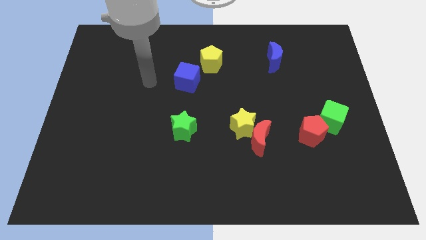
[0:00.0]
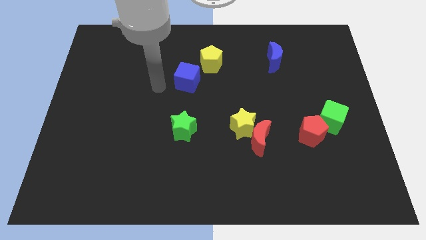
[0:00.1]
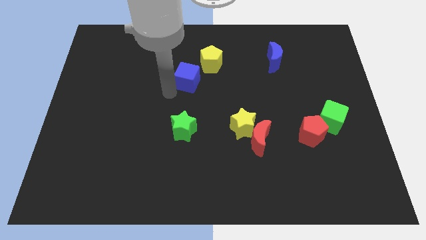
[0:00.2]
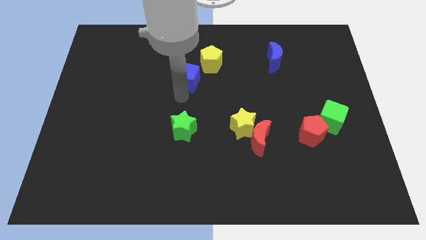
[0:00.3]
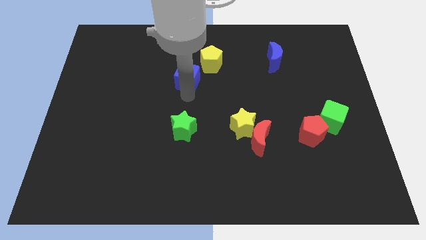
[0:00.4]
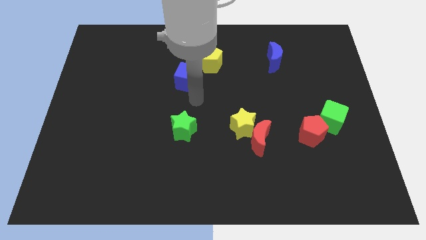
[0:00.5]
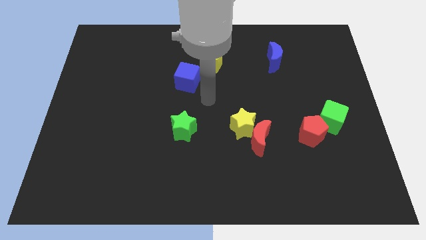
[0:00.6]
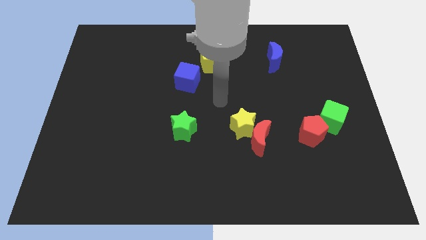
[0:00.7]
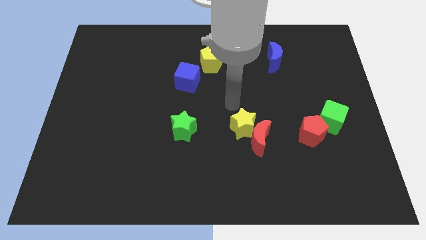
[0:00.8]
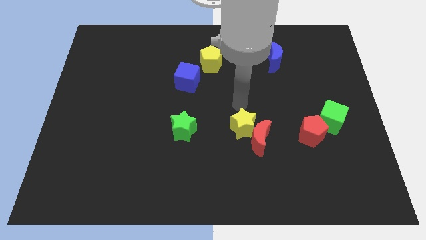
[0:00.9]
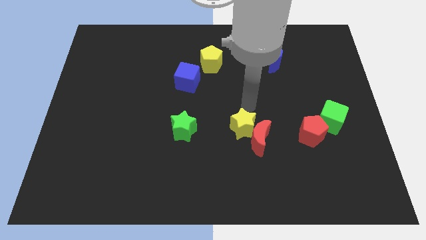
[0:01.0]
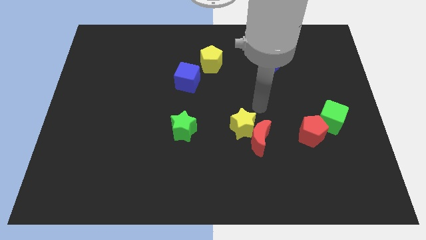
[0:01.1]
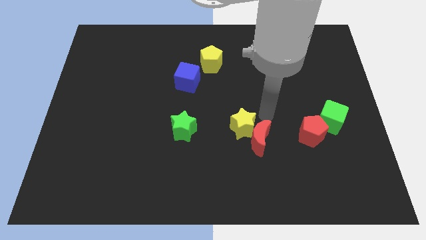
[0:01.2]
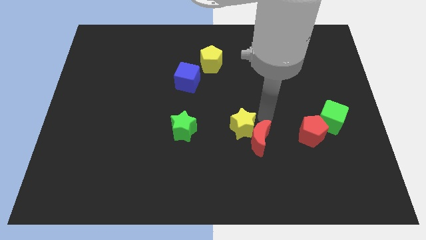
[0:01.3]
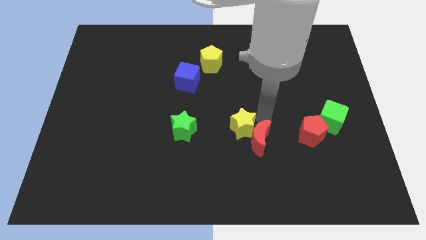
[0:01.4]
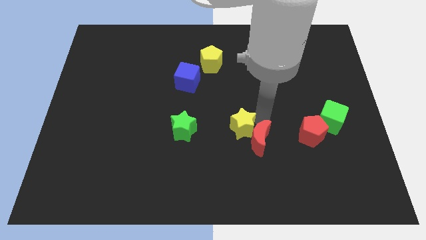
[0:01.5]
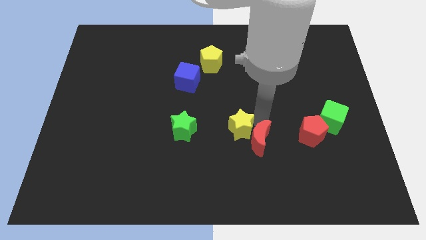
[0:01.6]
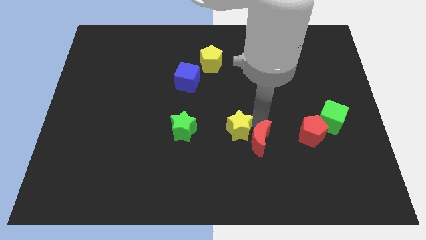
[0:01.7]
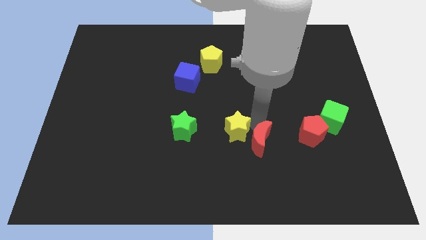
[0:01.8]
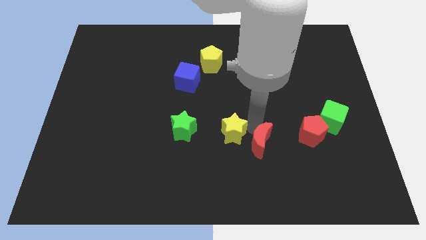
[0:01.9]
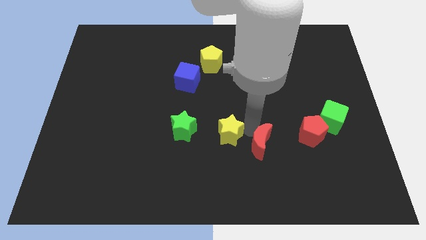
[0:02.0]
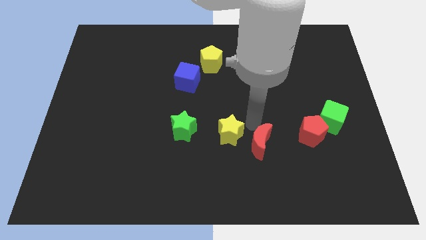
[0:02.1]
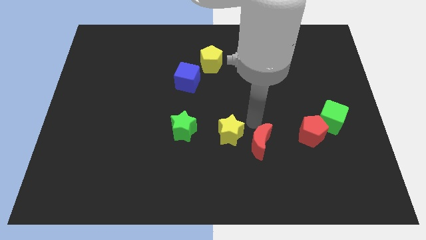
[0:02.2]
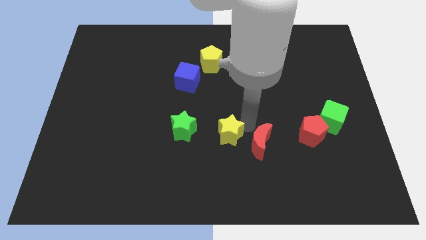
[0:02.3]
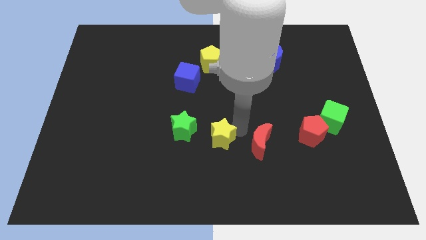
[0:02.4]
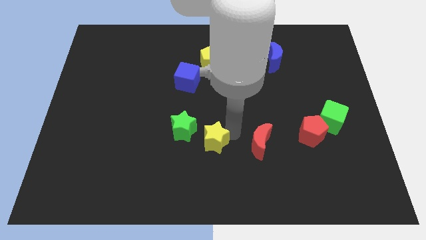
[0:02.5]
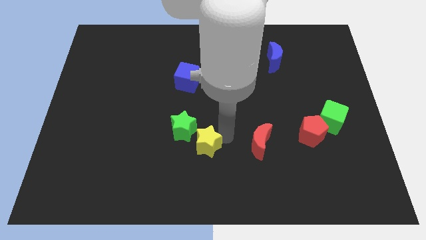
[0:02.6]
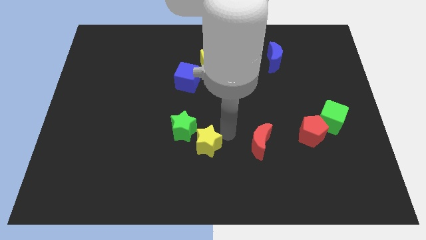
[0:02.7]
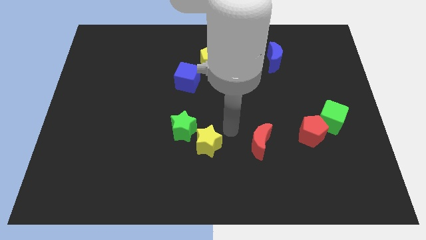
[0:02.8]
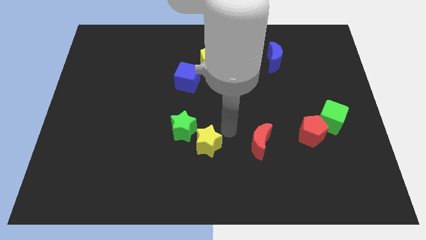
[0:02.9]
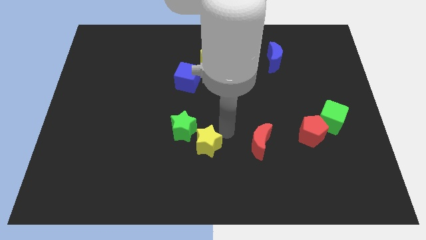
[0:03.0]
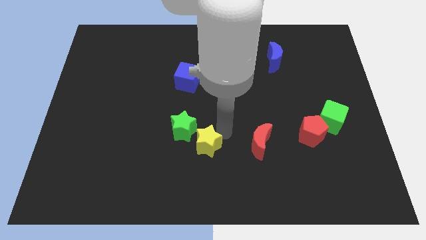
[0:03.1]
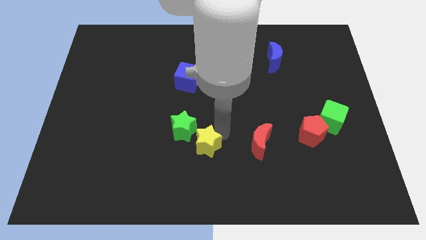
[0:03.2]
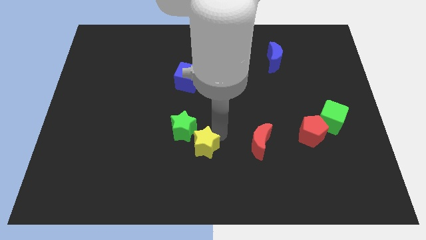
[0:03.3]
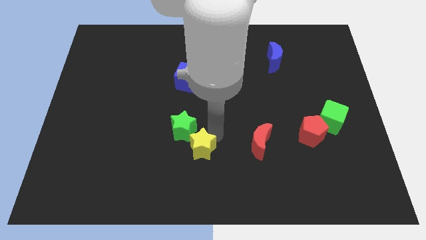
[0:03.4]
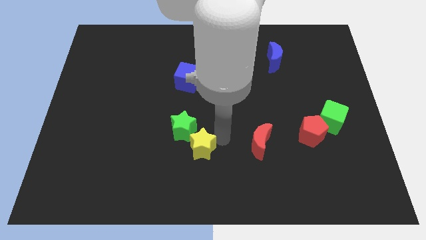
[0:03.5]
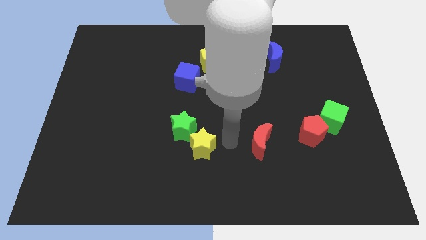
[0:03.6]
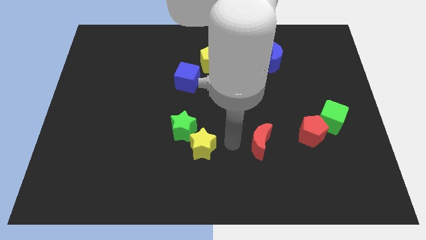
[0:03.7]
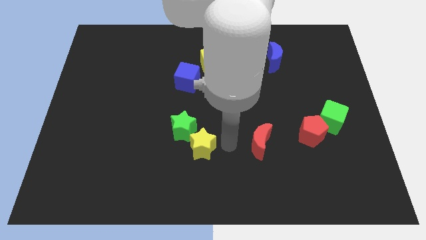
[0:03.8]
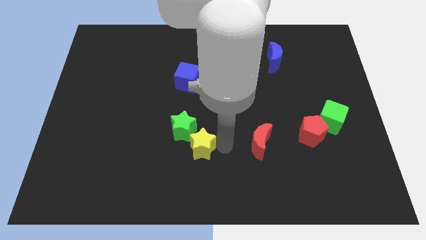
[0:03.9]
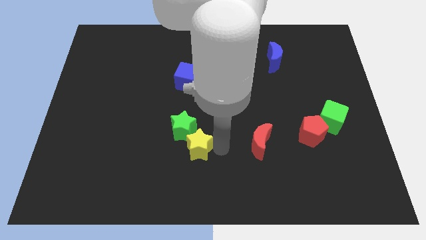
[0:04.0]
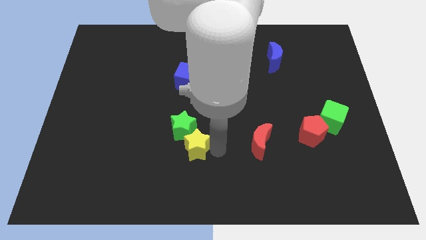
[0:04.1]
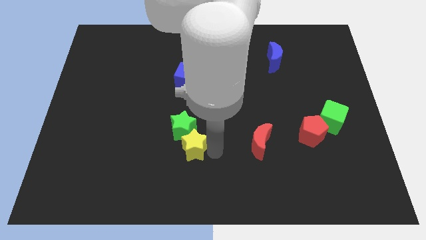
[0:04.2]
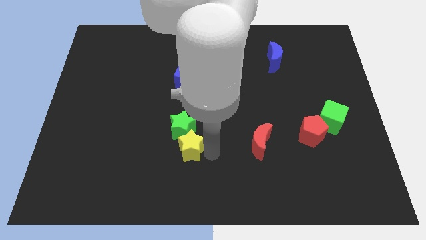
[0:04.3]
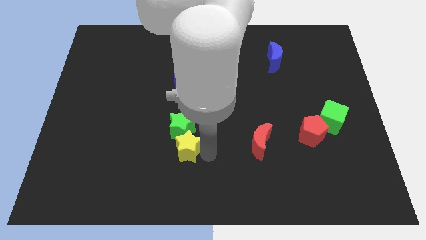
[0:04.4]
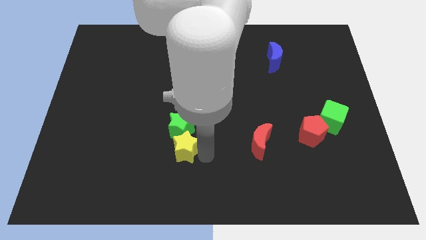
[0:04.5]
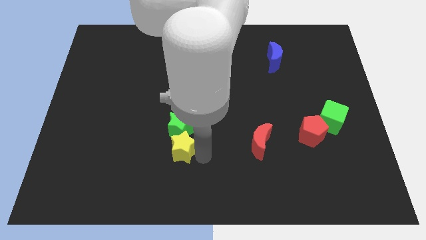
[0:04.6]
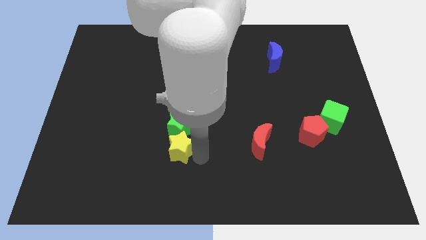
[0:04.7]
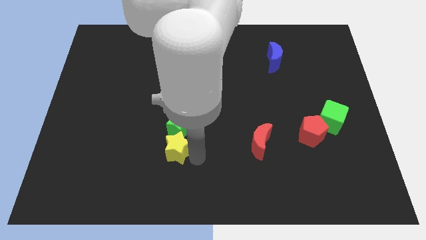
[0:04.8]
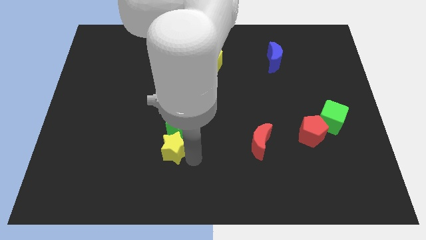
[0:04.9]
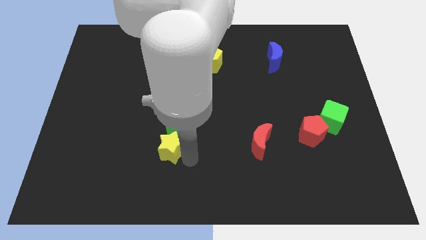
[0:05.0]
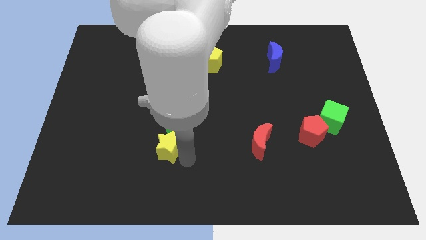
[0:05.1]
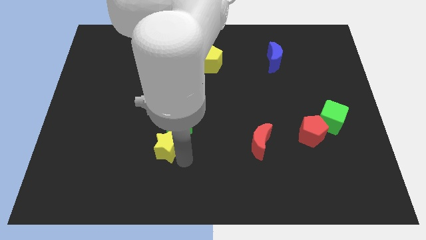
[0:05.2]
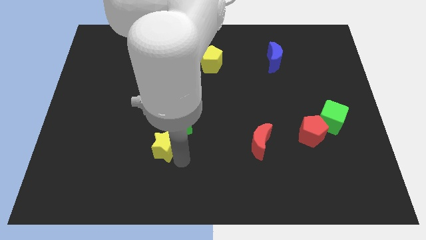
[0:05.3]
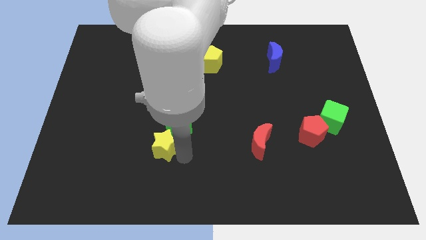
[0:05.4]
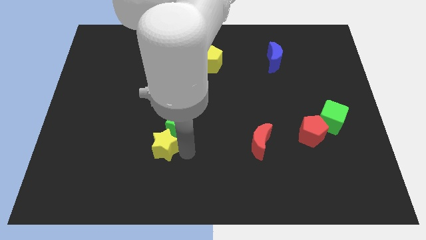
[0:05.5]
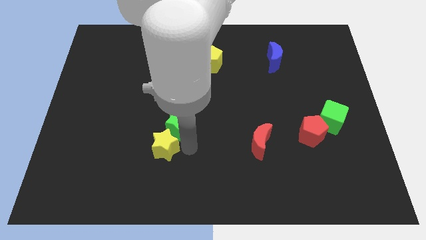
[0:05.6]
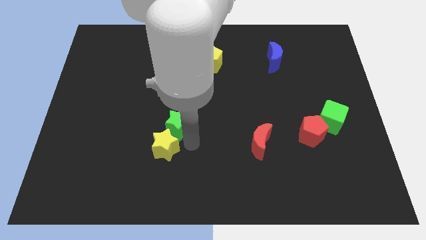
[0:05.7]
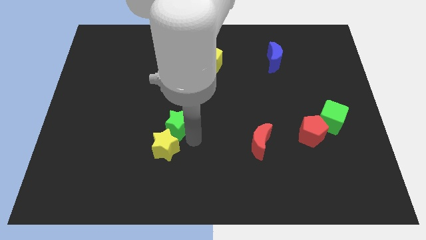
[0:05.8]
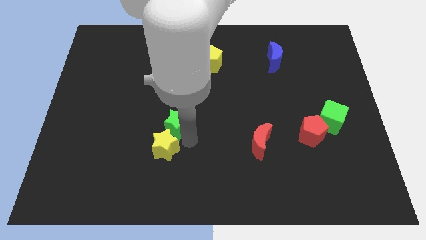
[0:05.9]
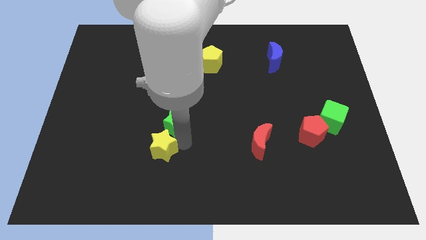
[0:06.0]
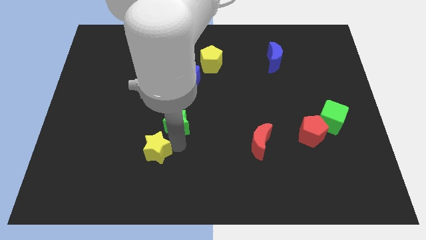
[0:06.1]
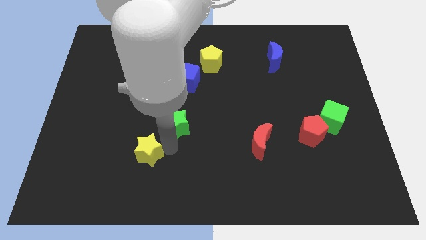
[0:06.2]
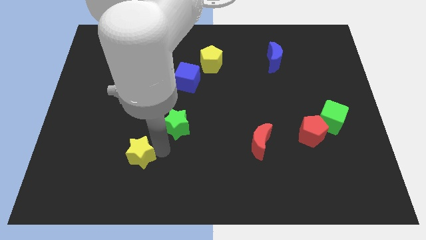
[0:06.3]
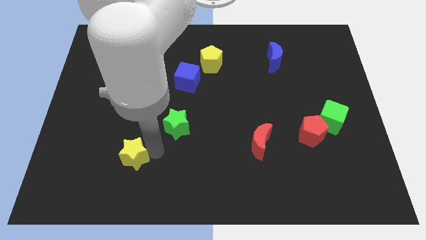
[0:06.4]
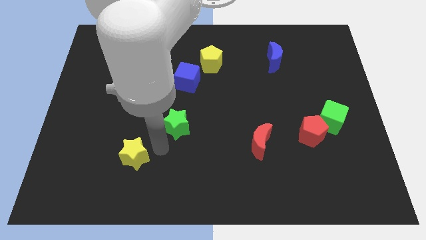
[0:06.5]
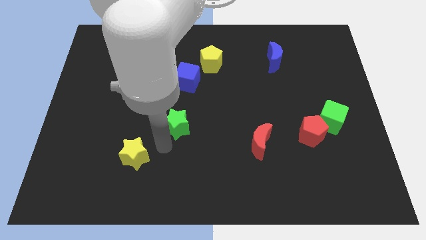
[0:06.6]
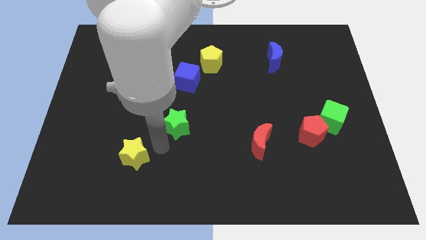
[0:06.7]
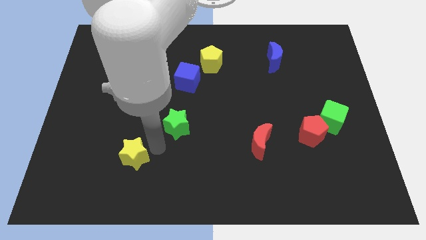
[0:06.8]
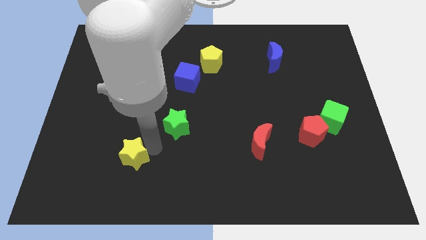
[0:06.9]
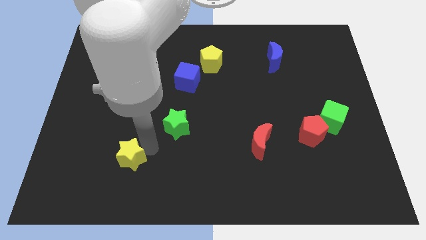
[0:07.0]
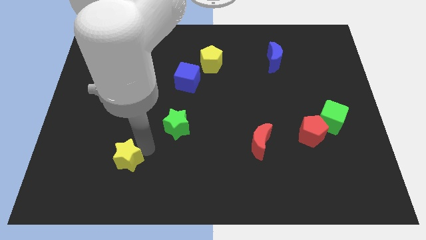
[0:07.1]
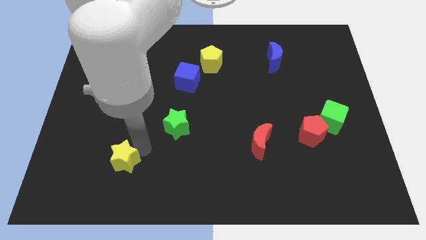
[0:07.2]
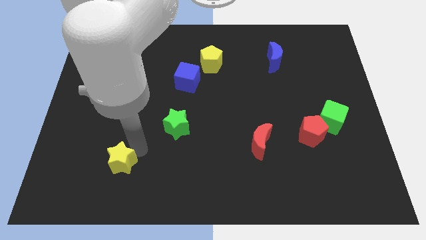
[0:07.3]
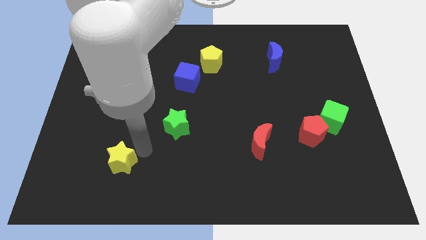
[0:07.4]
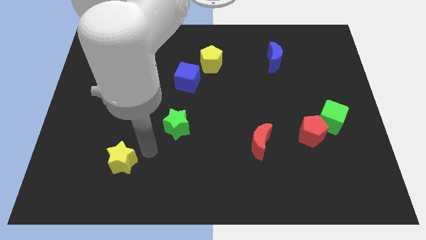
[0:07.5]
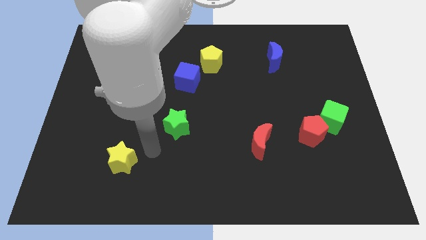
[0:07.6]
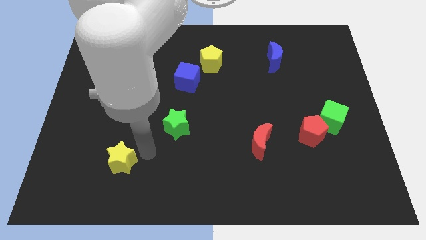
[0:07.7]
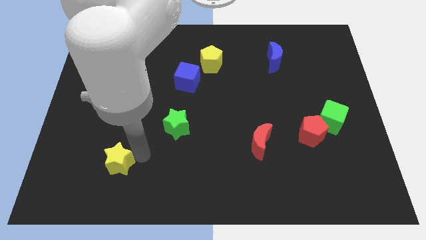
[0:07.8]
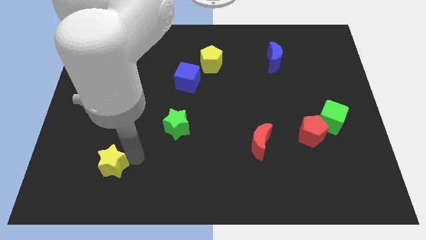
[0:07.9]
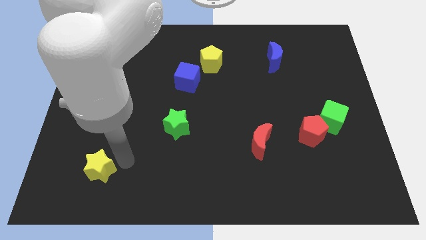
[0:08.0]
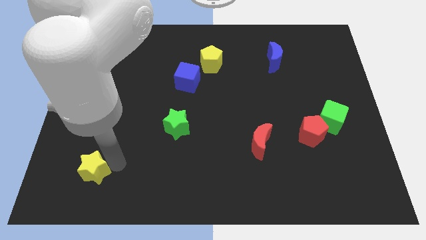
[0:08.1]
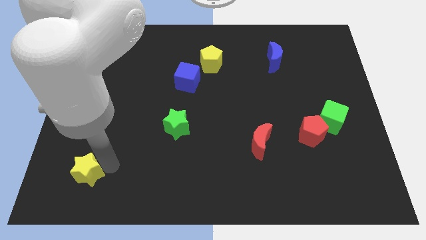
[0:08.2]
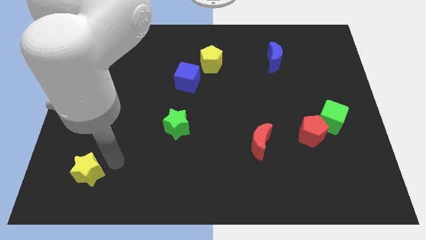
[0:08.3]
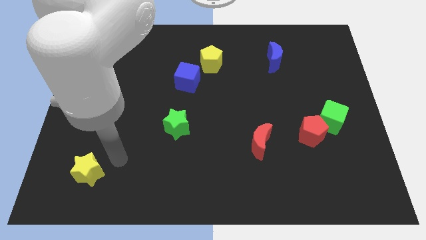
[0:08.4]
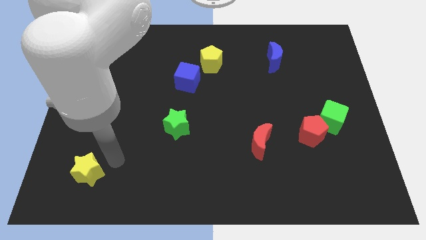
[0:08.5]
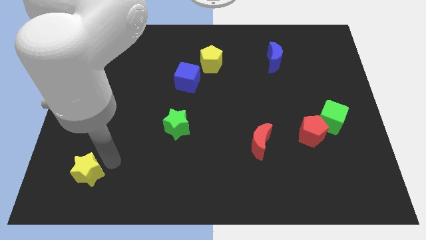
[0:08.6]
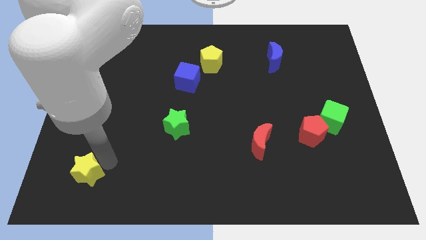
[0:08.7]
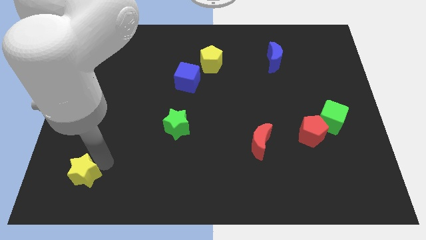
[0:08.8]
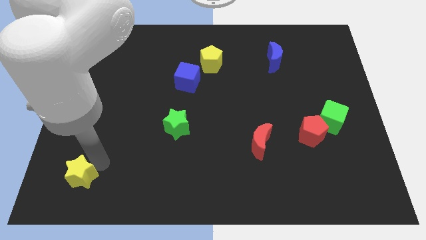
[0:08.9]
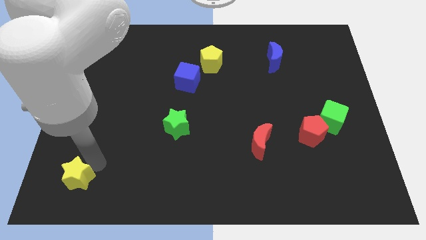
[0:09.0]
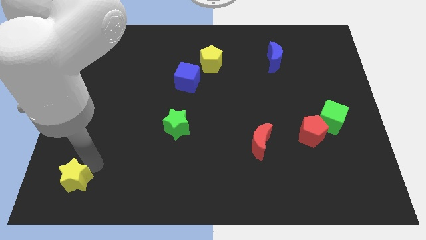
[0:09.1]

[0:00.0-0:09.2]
push the yellow star to the lower left corner
